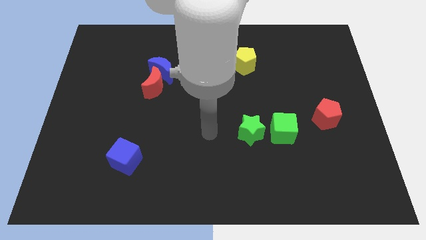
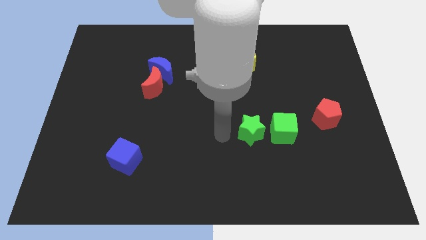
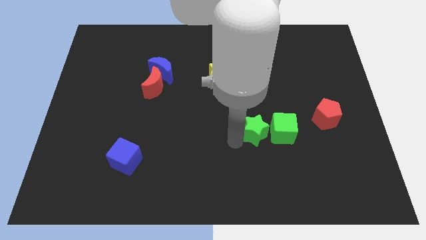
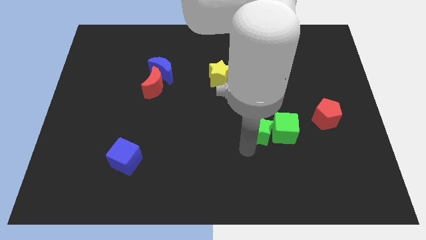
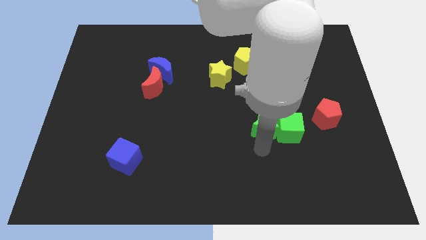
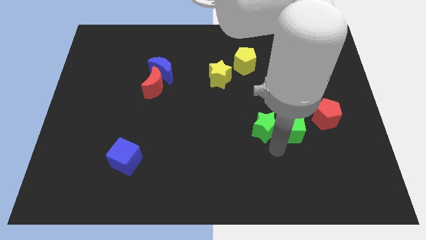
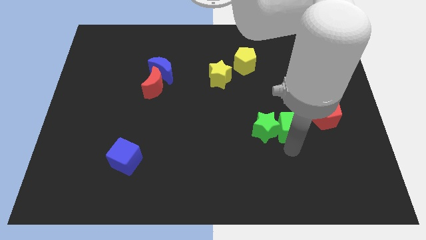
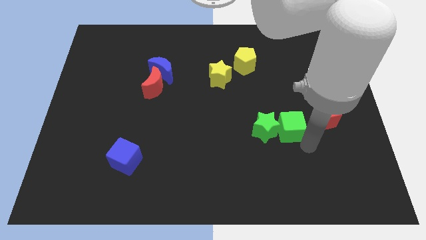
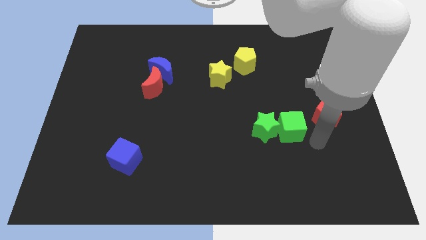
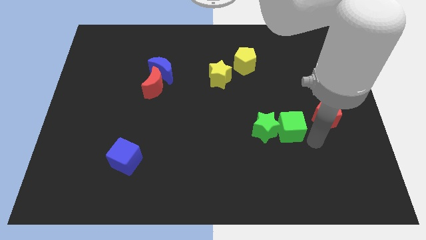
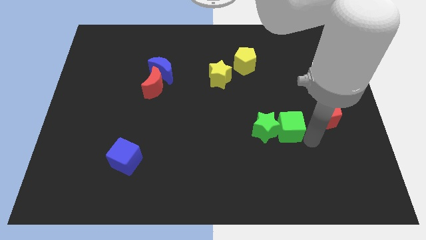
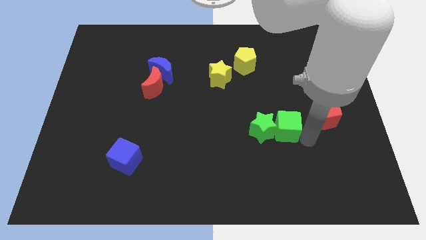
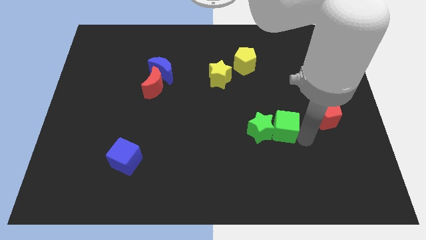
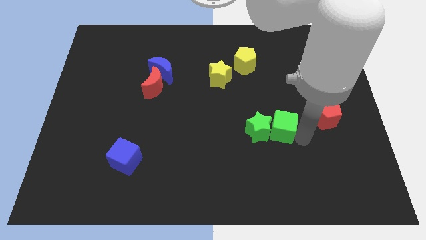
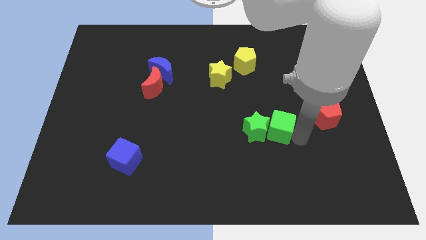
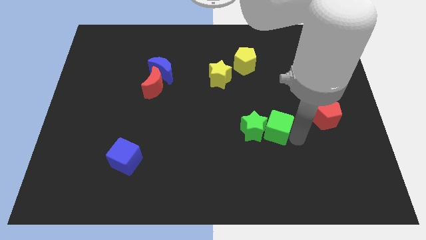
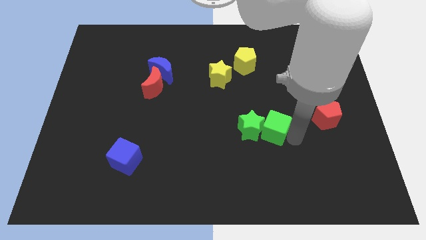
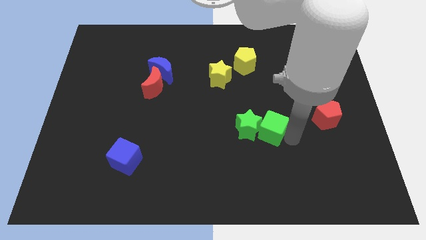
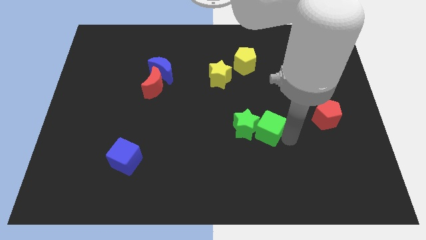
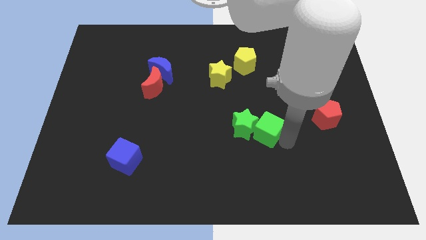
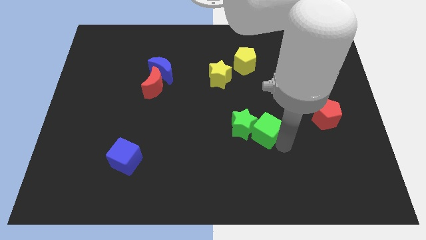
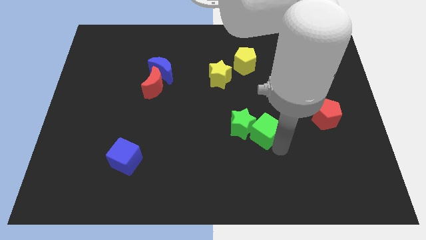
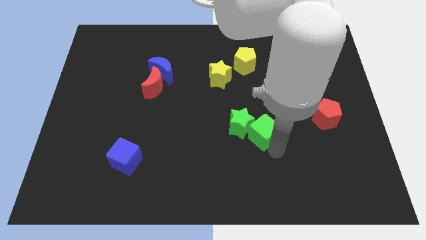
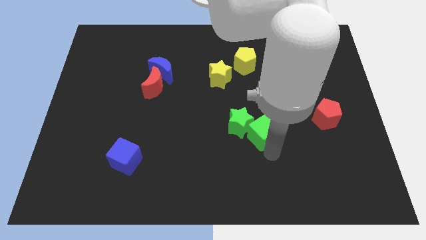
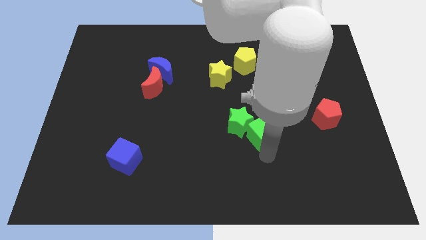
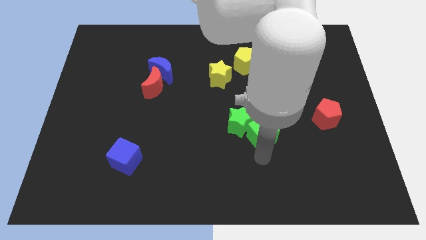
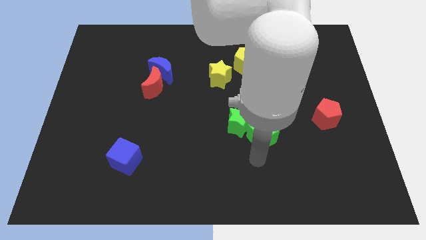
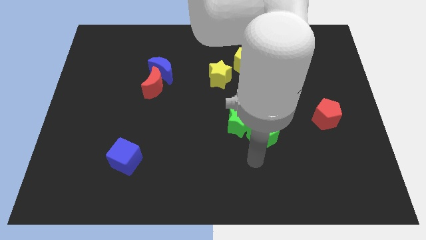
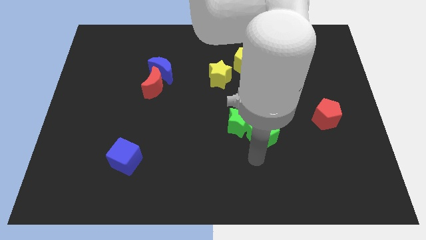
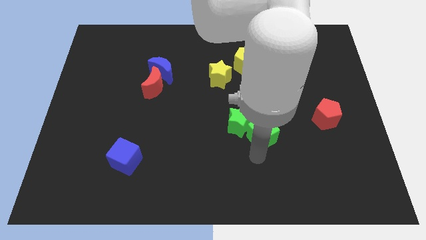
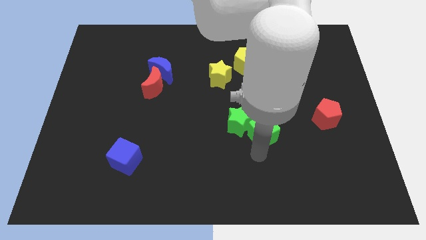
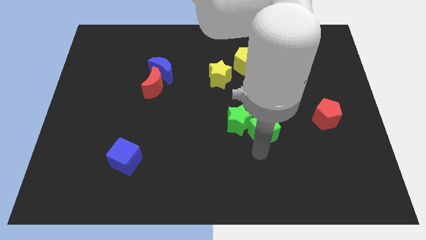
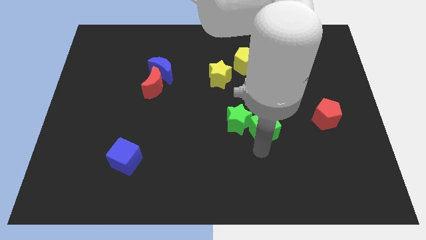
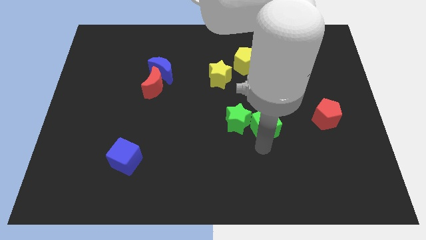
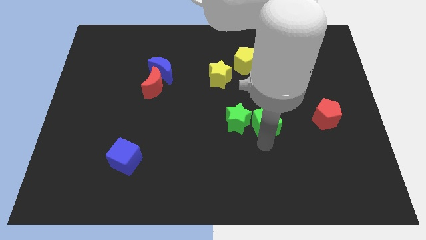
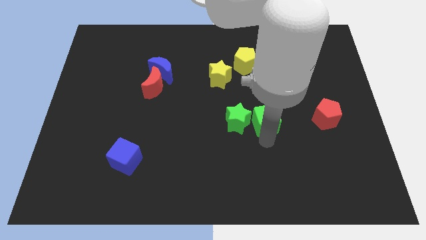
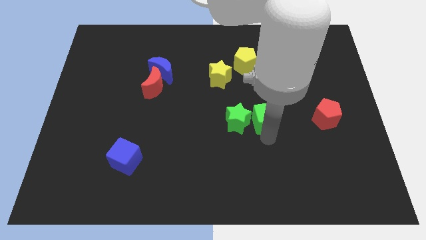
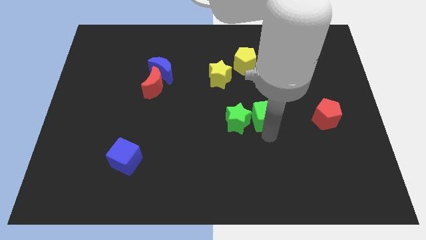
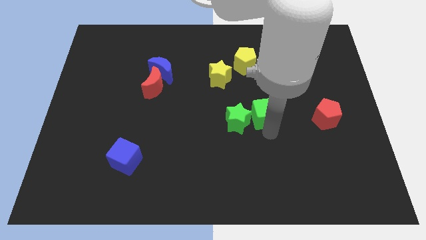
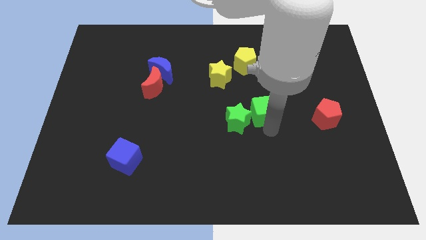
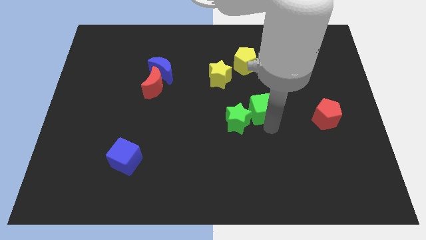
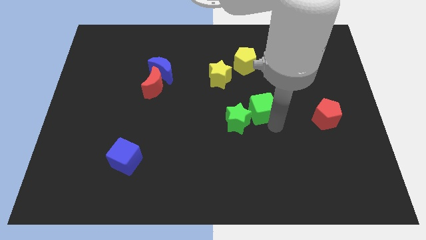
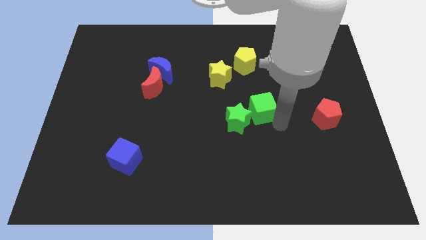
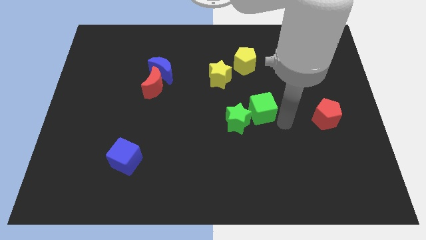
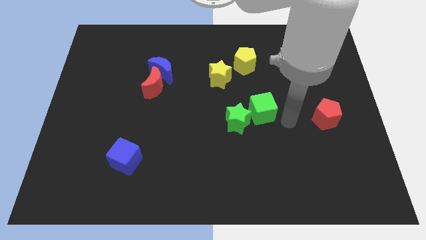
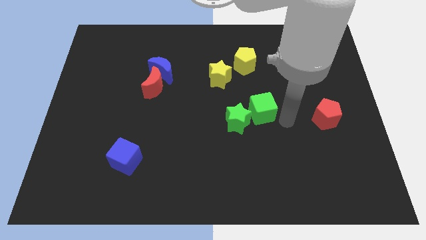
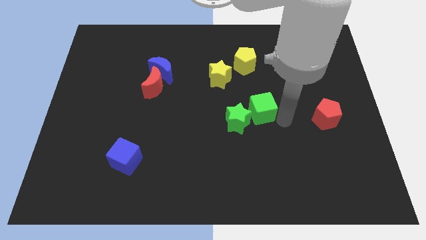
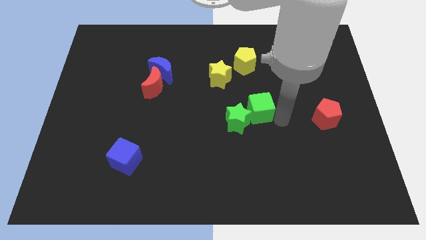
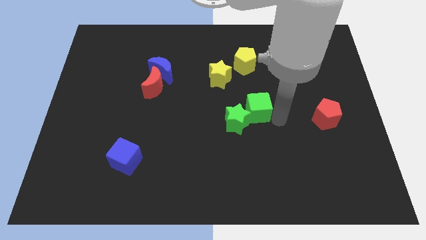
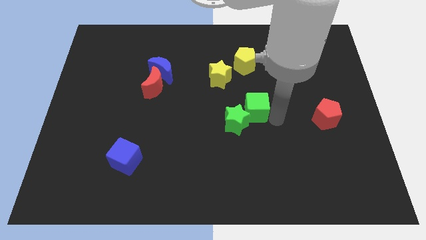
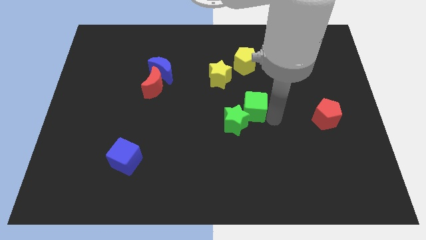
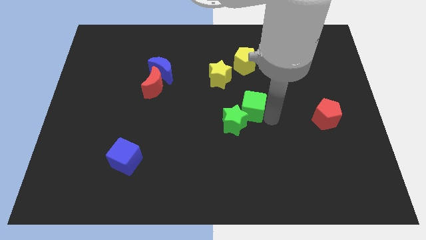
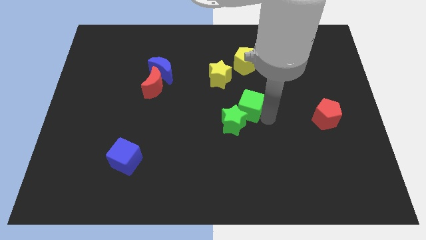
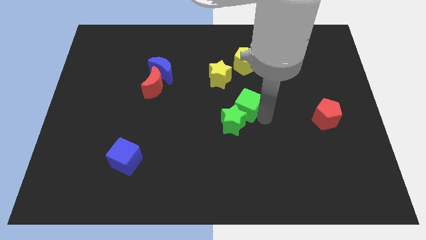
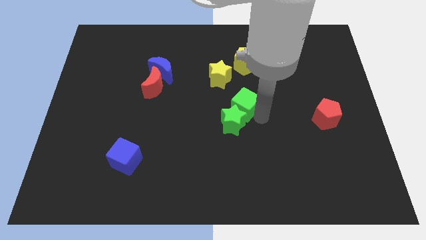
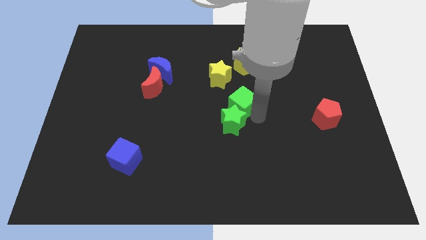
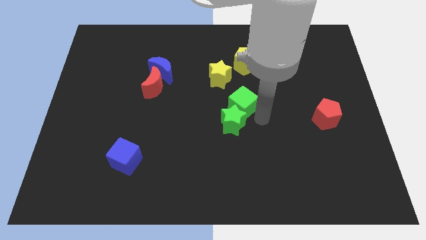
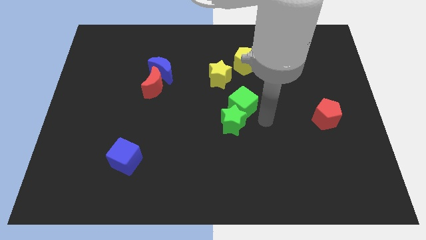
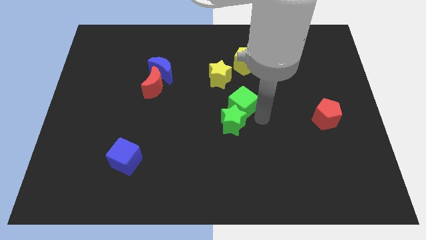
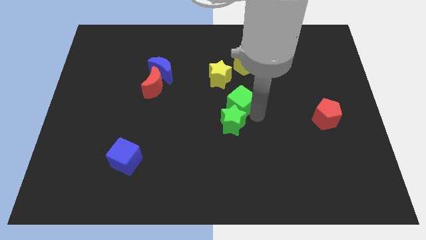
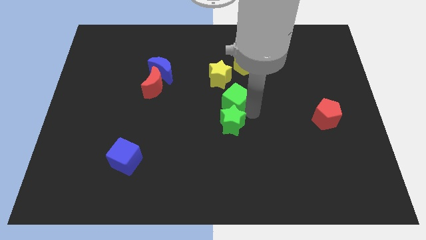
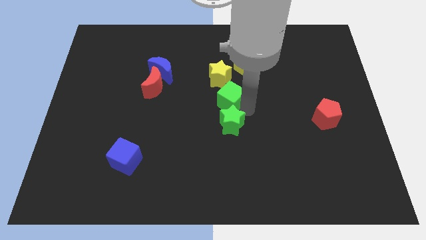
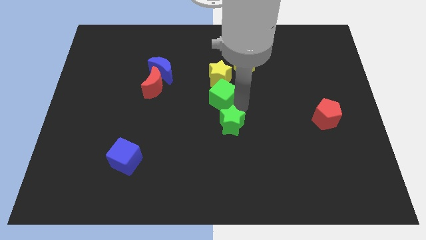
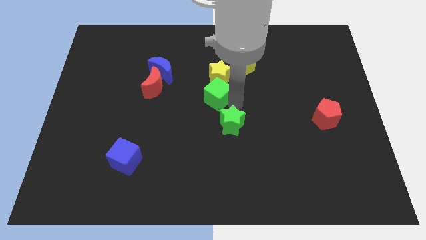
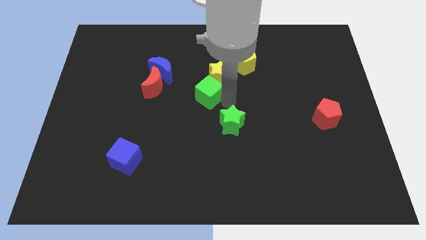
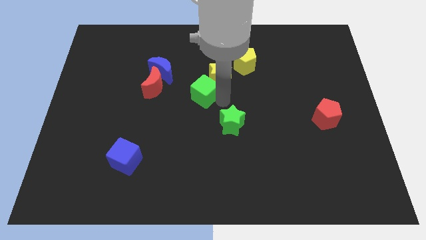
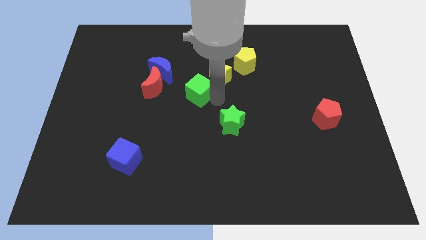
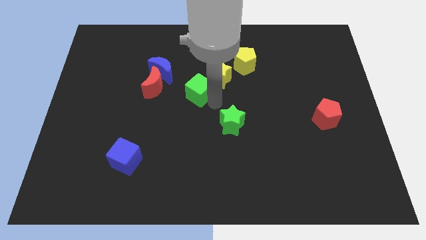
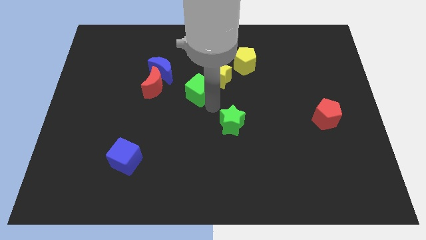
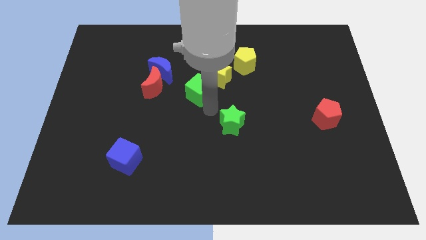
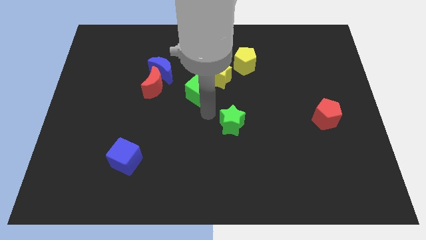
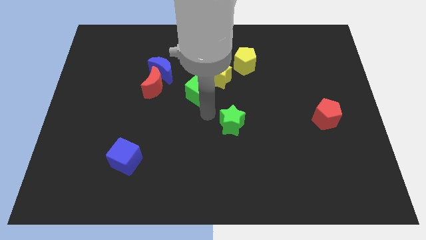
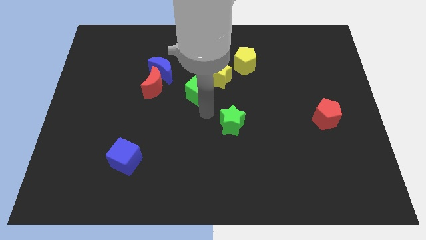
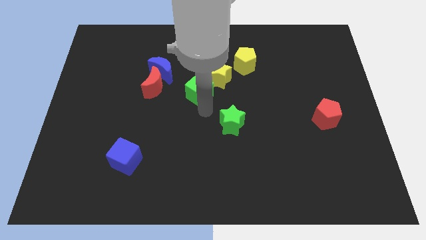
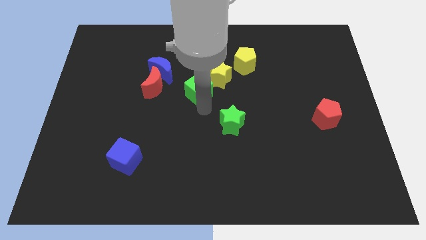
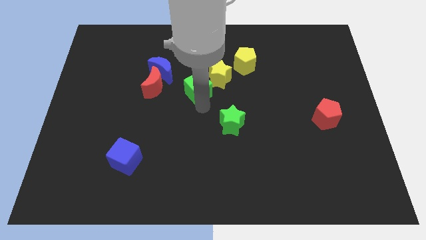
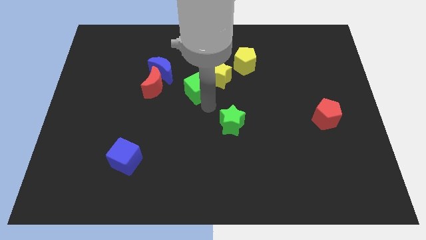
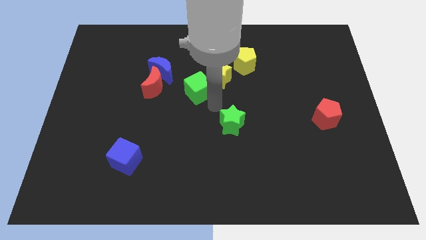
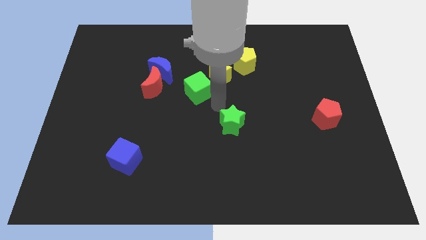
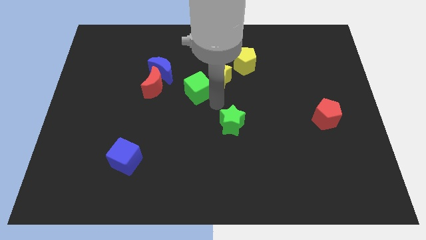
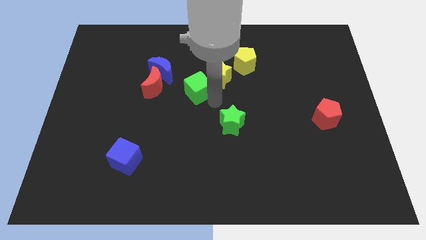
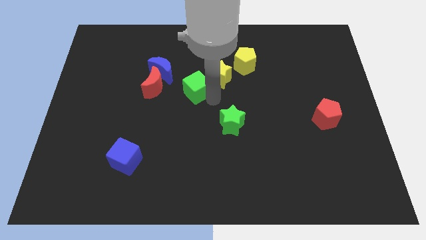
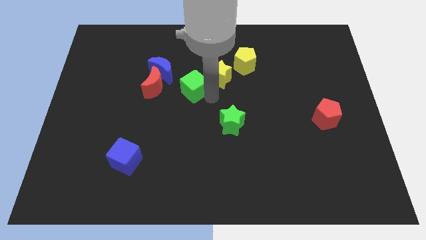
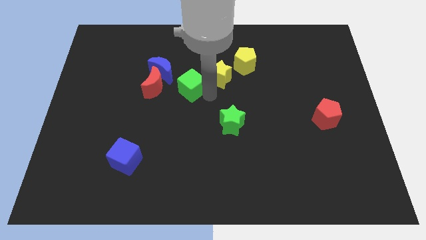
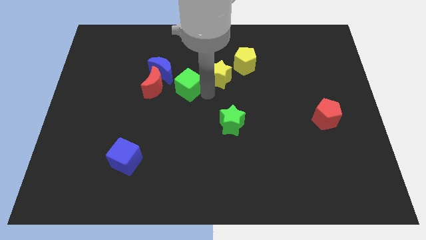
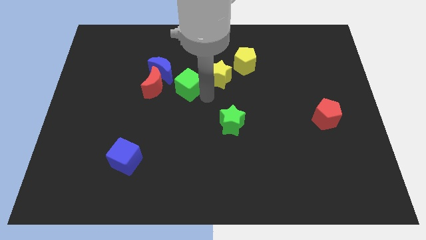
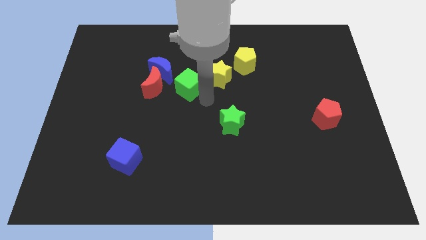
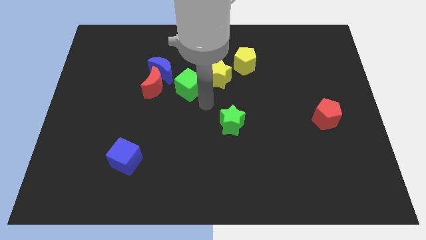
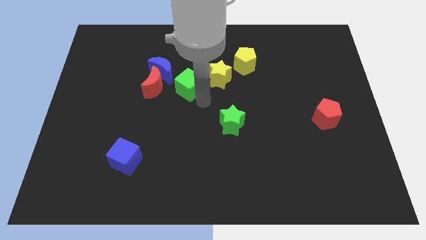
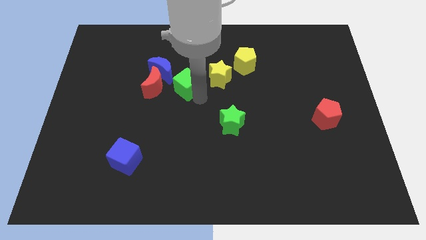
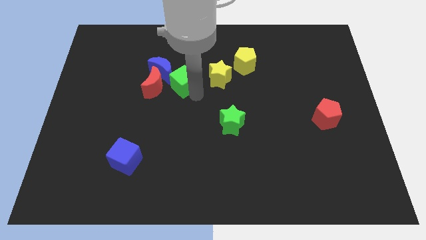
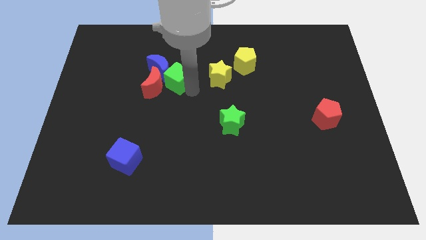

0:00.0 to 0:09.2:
move the green cube towards the blue moon
